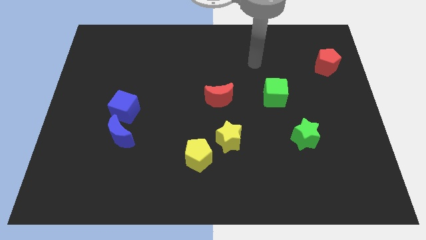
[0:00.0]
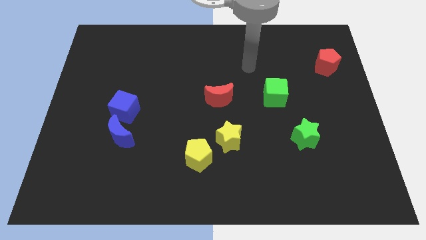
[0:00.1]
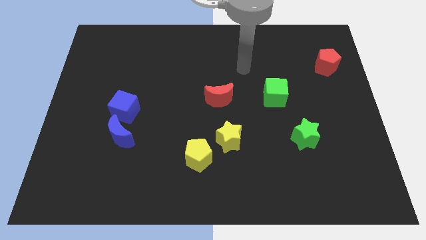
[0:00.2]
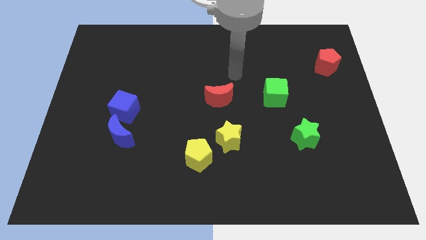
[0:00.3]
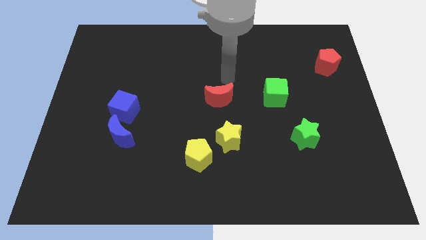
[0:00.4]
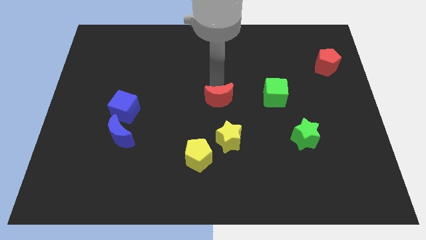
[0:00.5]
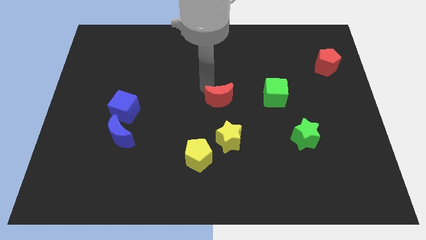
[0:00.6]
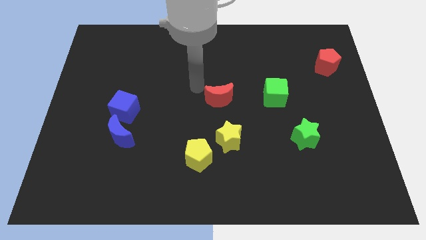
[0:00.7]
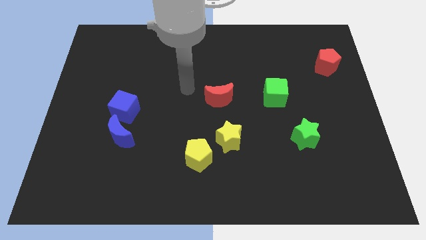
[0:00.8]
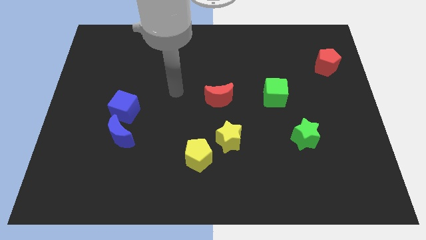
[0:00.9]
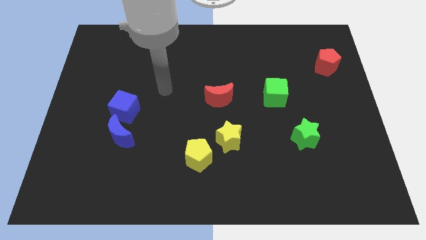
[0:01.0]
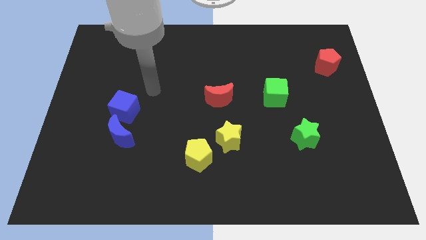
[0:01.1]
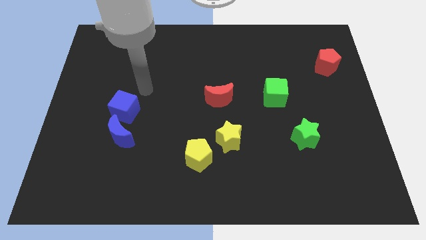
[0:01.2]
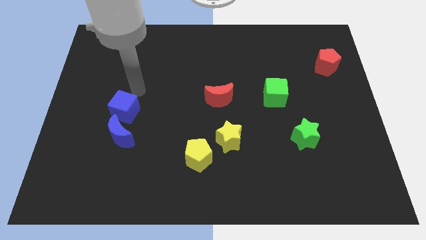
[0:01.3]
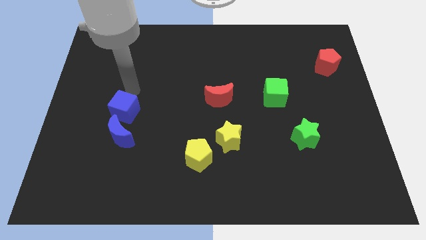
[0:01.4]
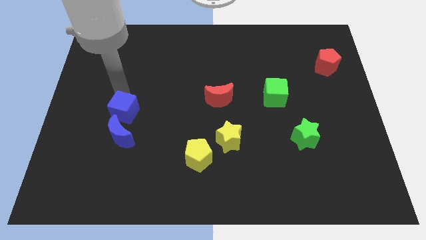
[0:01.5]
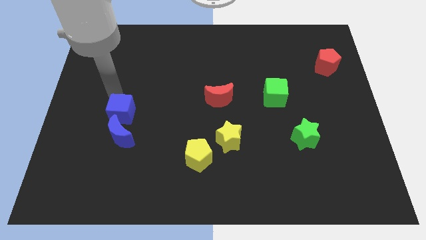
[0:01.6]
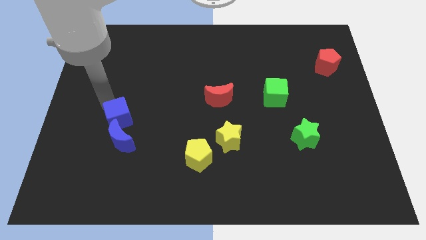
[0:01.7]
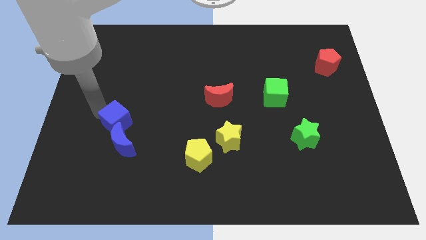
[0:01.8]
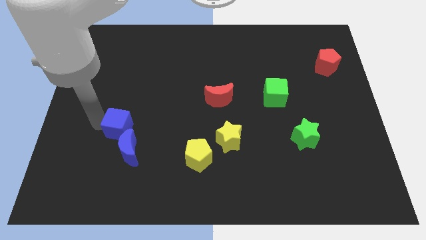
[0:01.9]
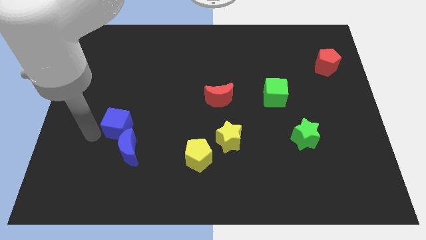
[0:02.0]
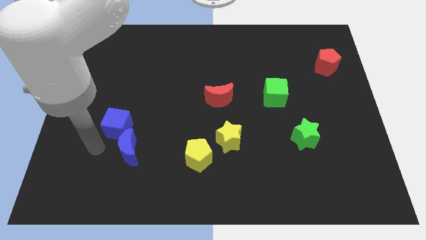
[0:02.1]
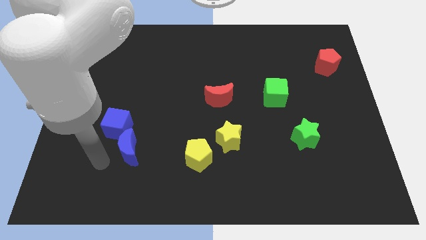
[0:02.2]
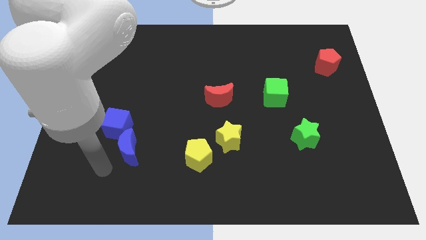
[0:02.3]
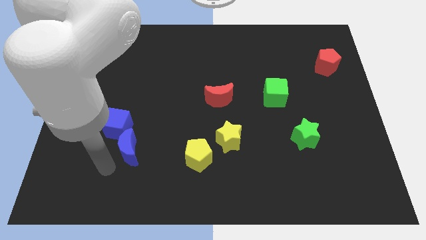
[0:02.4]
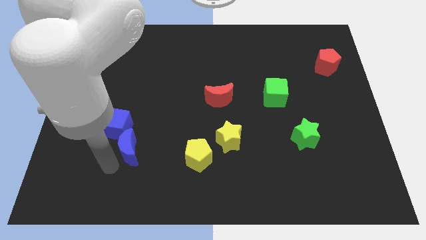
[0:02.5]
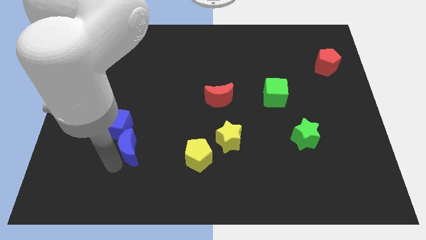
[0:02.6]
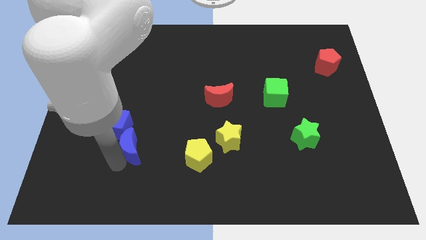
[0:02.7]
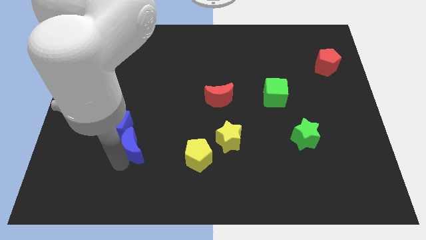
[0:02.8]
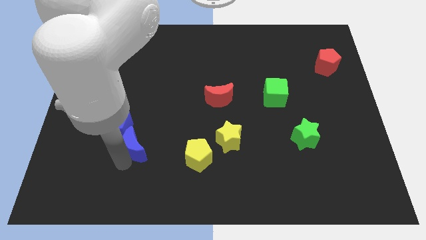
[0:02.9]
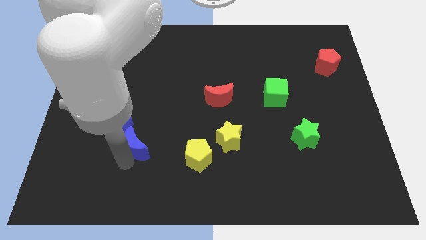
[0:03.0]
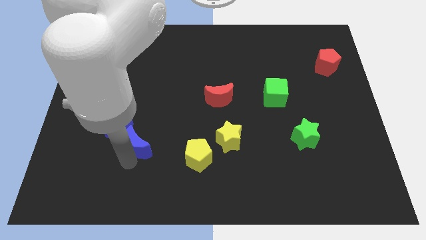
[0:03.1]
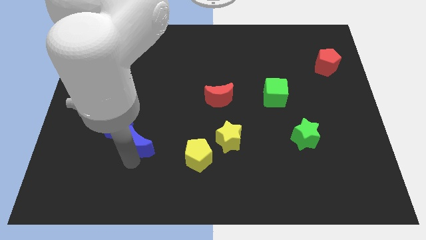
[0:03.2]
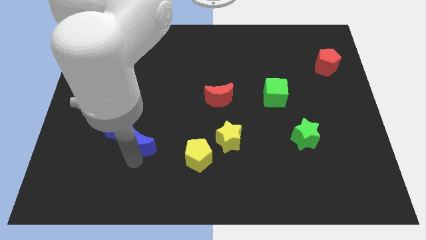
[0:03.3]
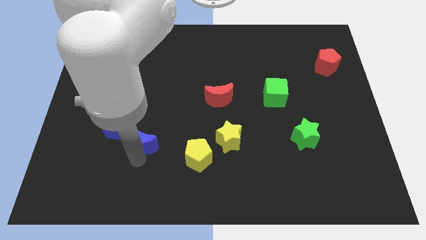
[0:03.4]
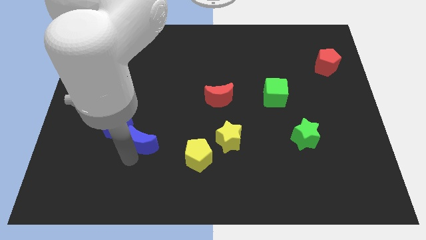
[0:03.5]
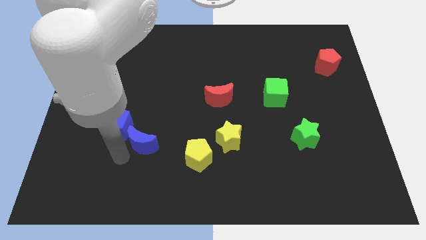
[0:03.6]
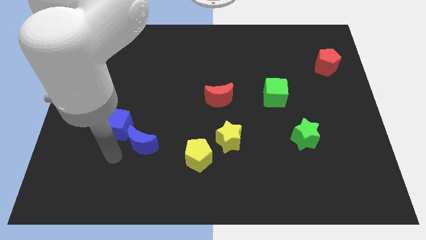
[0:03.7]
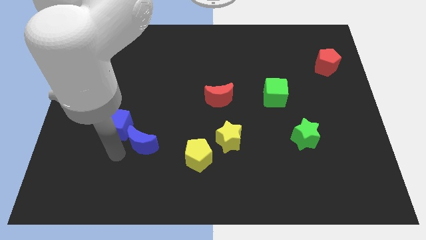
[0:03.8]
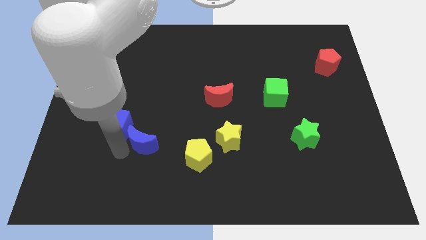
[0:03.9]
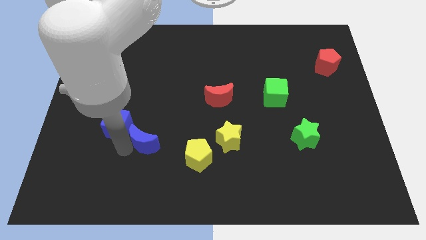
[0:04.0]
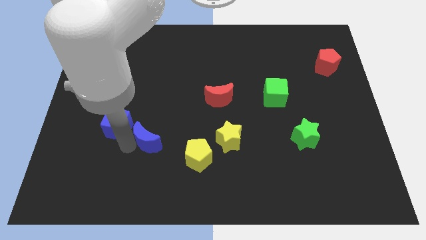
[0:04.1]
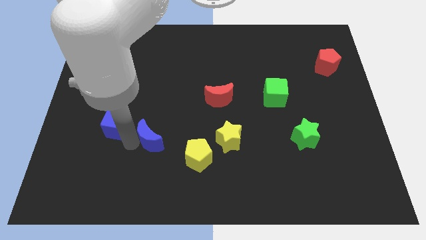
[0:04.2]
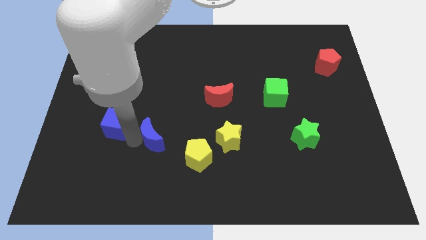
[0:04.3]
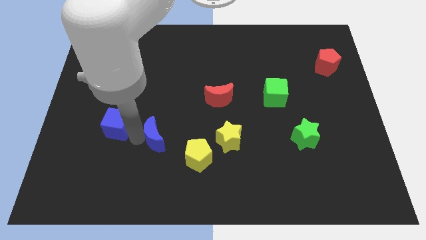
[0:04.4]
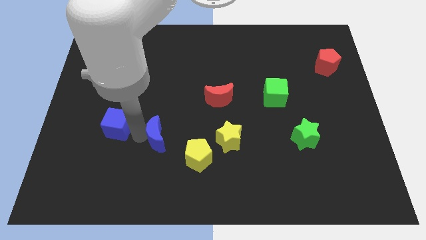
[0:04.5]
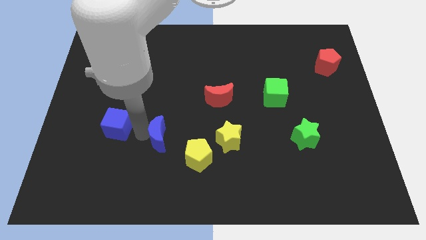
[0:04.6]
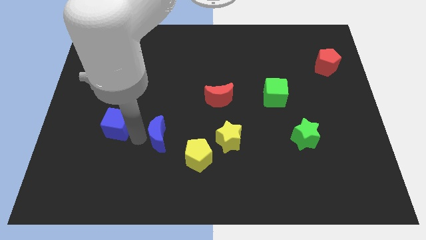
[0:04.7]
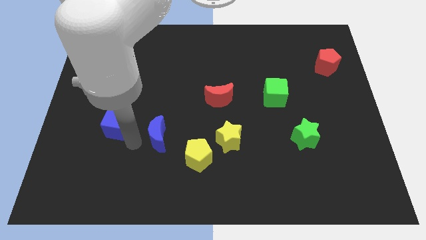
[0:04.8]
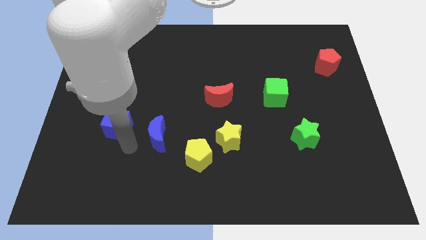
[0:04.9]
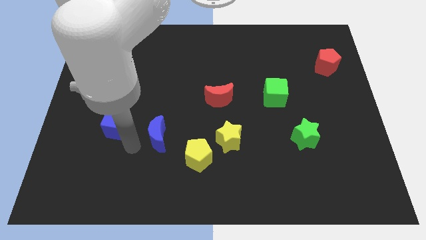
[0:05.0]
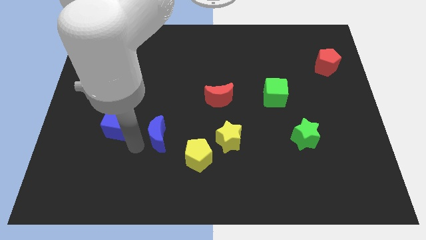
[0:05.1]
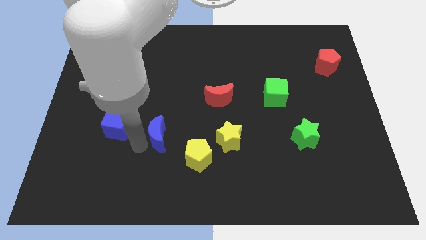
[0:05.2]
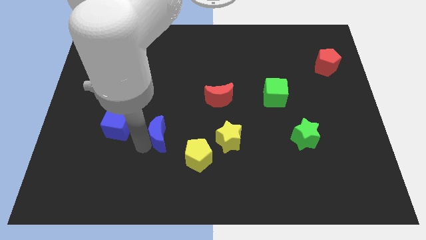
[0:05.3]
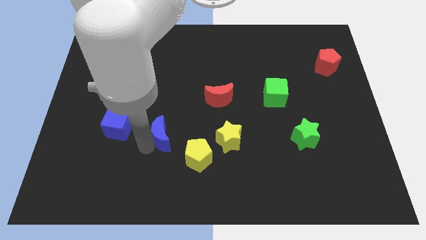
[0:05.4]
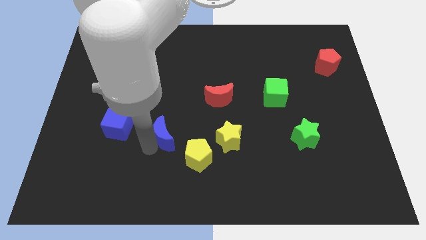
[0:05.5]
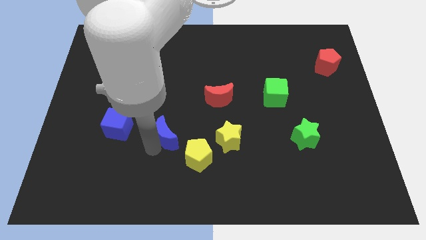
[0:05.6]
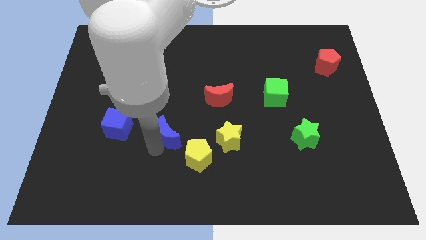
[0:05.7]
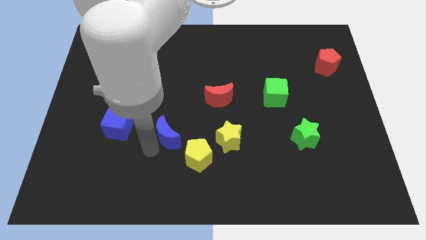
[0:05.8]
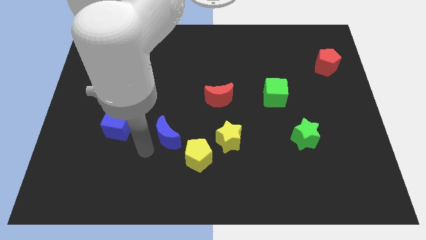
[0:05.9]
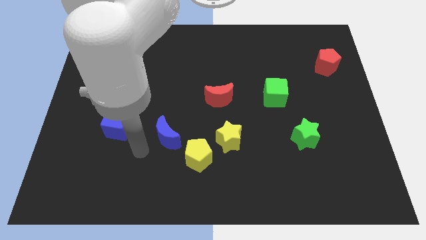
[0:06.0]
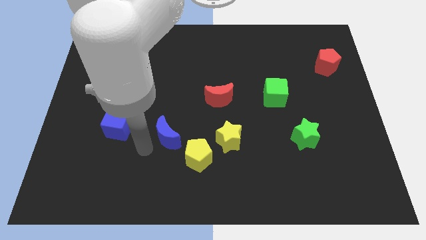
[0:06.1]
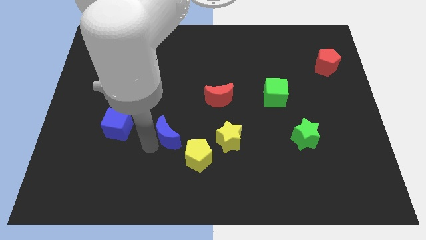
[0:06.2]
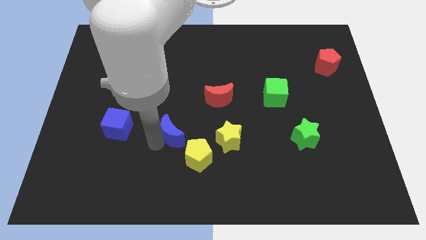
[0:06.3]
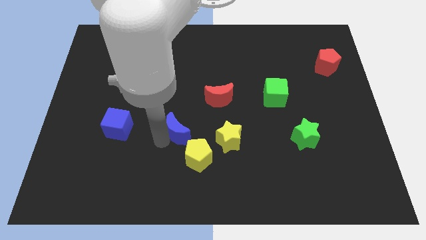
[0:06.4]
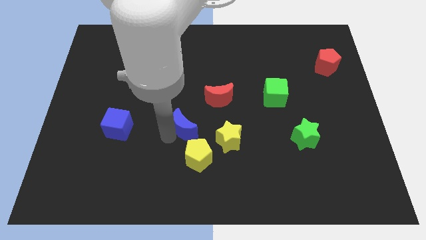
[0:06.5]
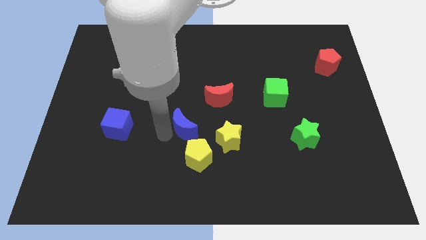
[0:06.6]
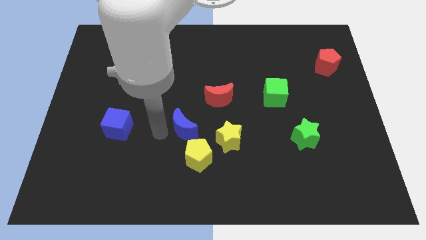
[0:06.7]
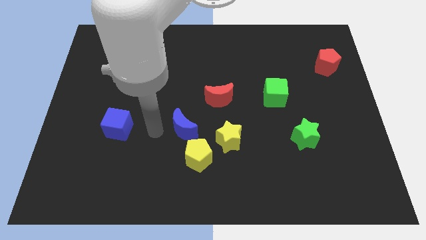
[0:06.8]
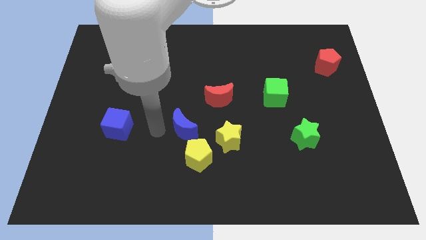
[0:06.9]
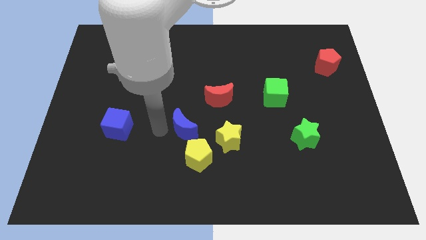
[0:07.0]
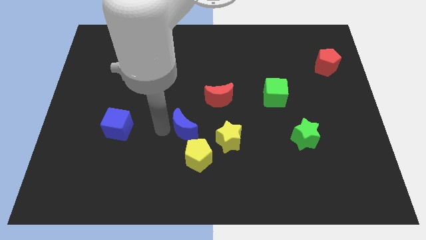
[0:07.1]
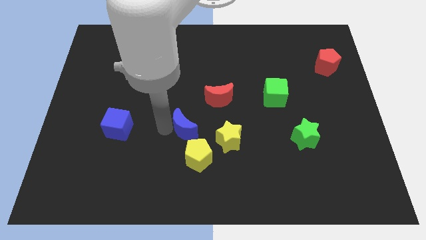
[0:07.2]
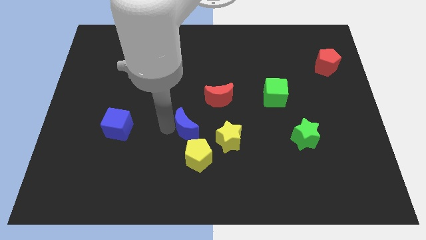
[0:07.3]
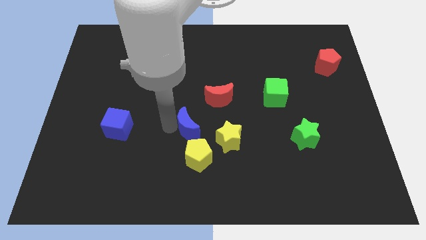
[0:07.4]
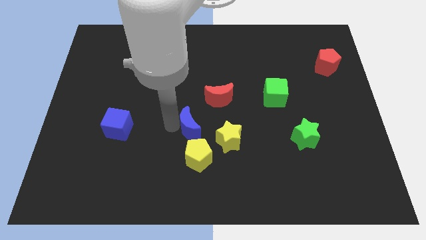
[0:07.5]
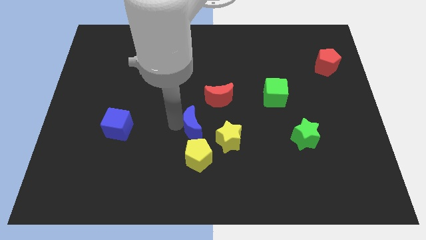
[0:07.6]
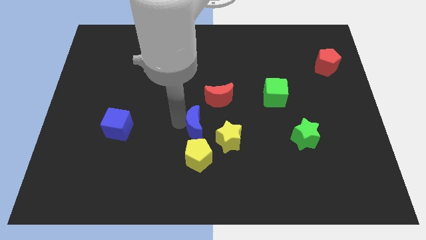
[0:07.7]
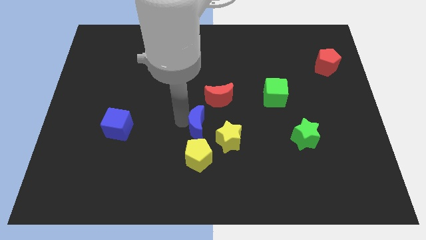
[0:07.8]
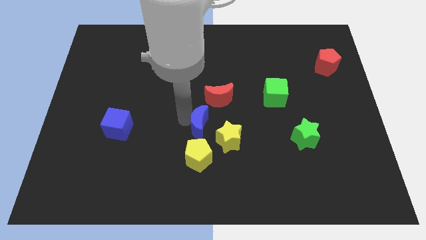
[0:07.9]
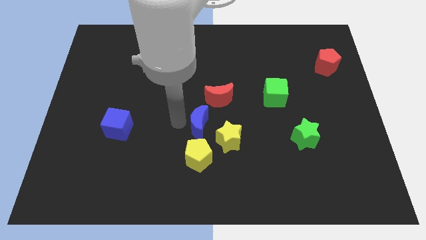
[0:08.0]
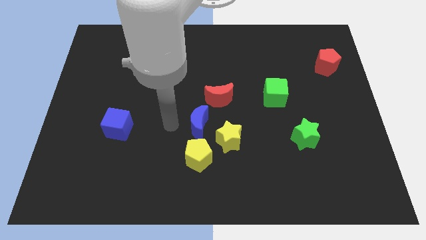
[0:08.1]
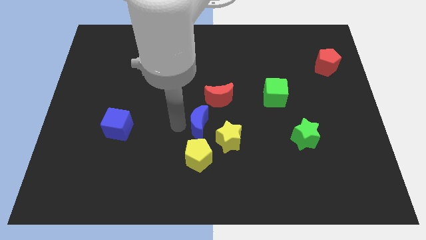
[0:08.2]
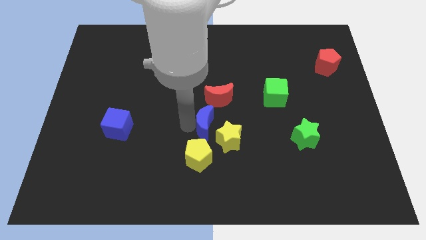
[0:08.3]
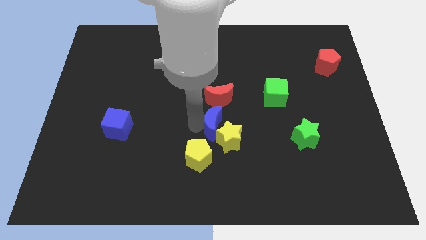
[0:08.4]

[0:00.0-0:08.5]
move the blue moon to the right
